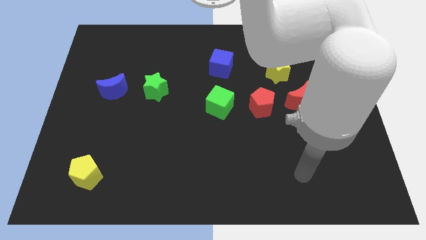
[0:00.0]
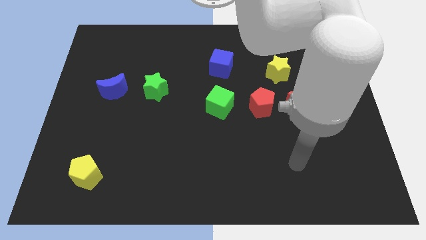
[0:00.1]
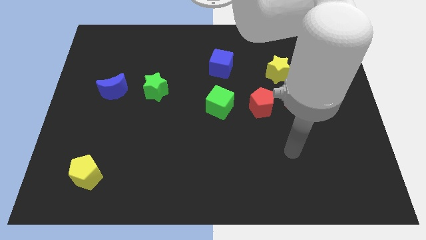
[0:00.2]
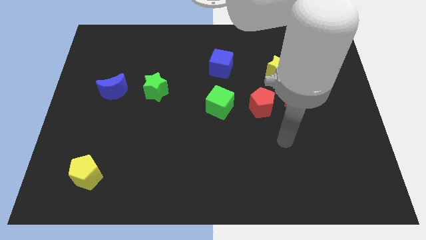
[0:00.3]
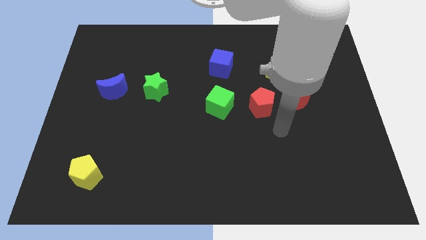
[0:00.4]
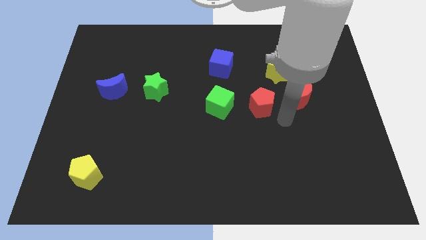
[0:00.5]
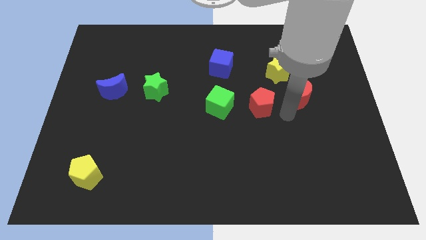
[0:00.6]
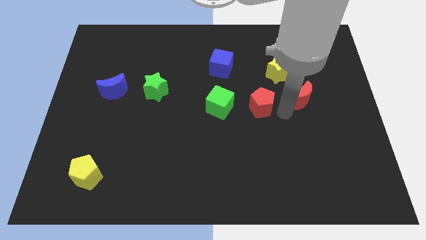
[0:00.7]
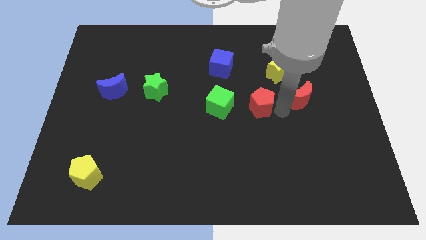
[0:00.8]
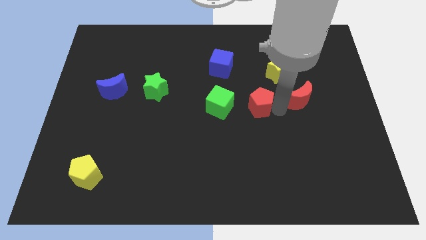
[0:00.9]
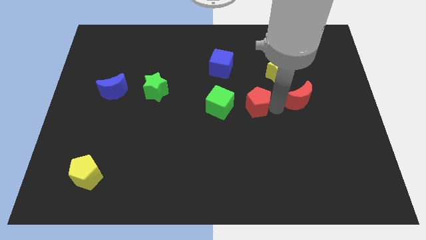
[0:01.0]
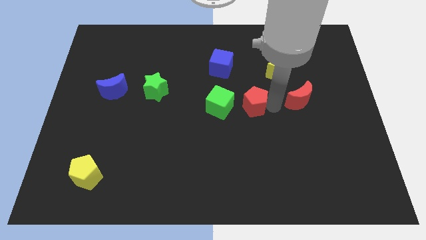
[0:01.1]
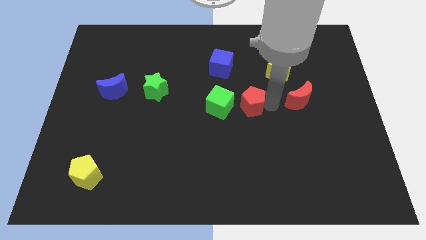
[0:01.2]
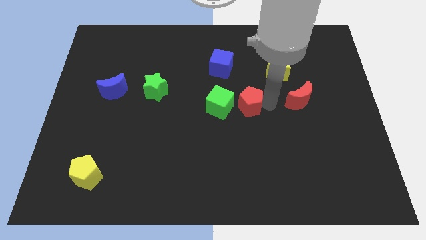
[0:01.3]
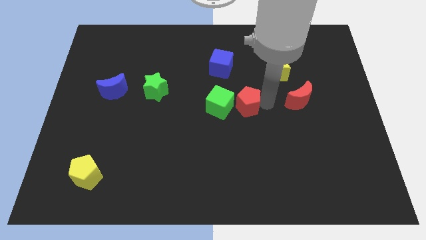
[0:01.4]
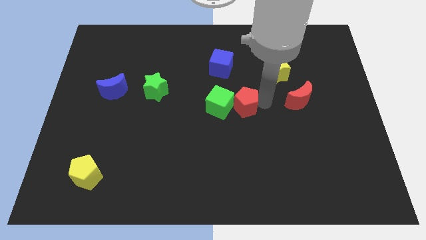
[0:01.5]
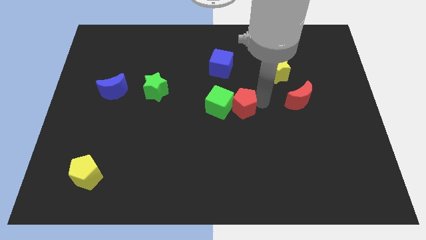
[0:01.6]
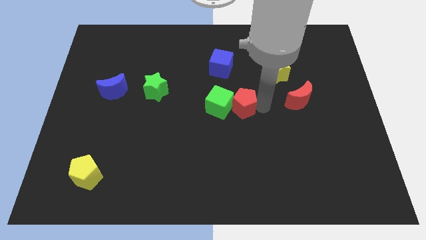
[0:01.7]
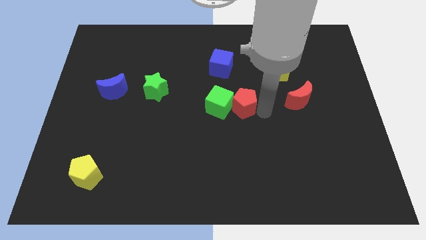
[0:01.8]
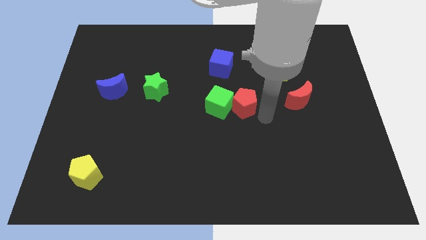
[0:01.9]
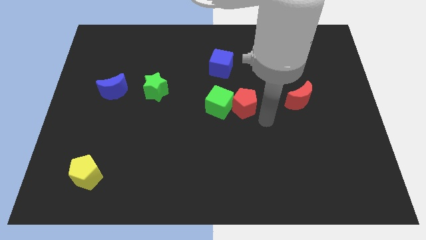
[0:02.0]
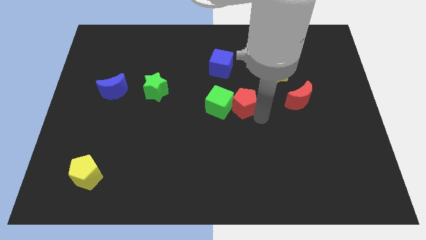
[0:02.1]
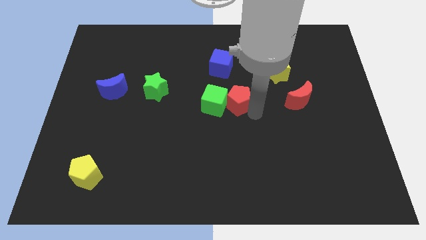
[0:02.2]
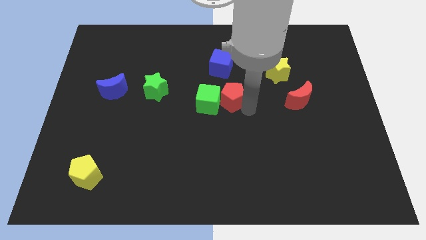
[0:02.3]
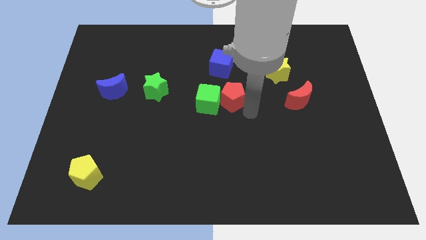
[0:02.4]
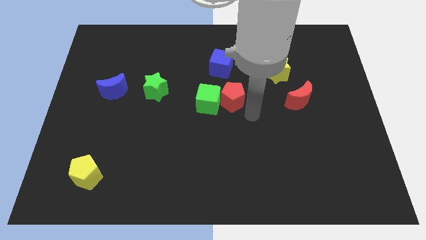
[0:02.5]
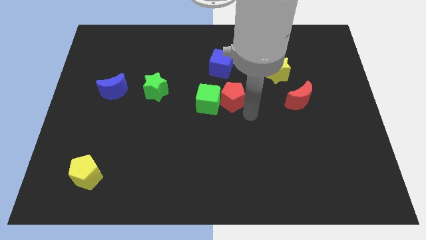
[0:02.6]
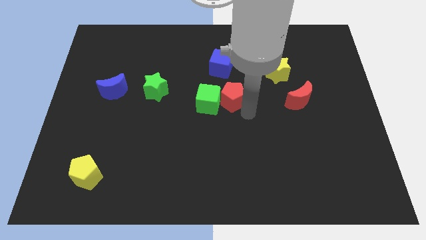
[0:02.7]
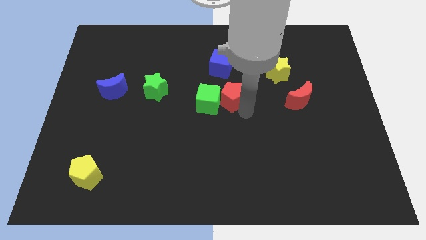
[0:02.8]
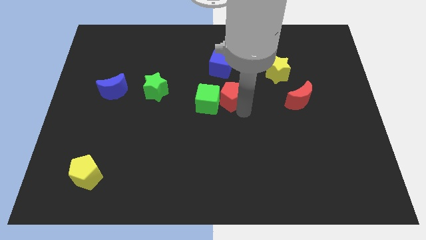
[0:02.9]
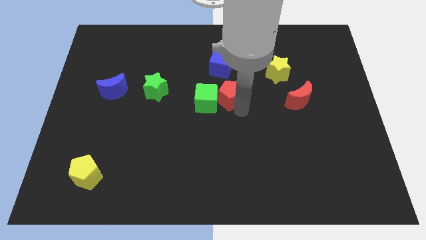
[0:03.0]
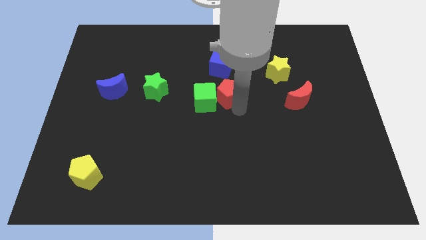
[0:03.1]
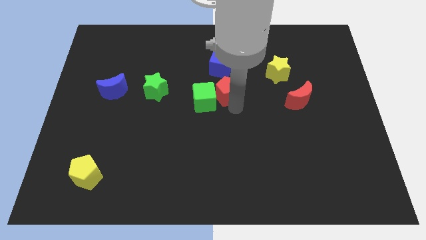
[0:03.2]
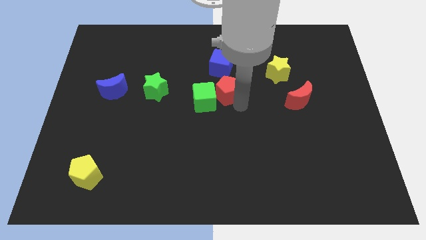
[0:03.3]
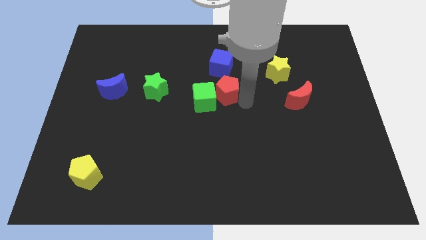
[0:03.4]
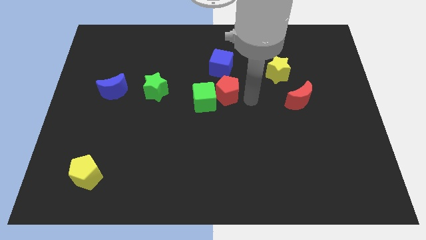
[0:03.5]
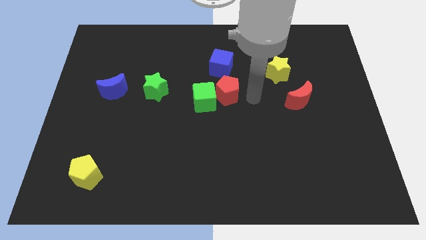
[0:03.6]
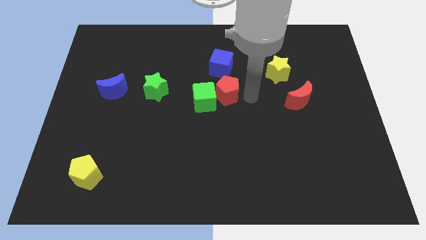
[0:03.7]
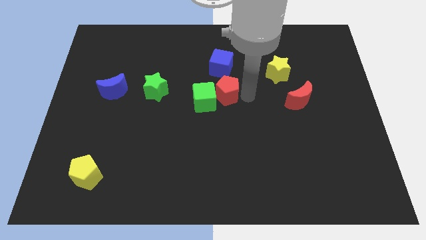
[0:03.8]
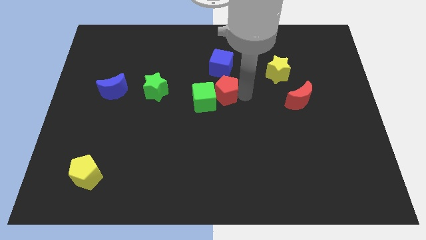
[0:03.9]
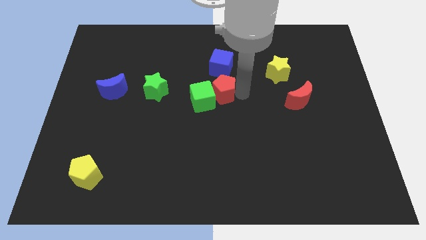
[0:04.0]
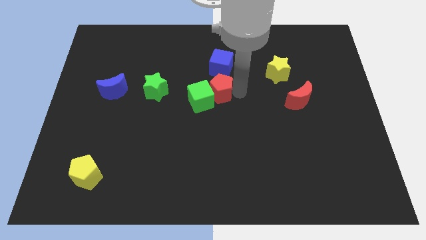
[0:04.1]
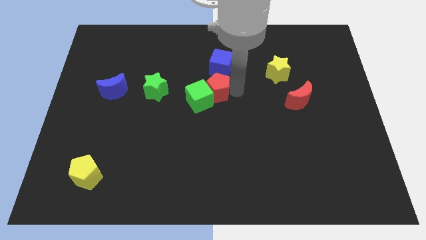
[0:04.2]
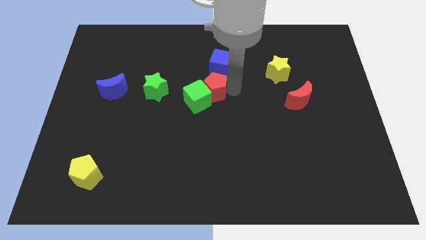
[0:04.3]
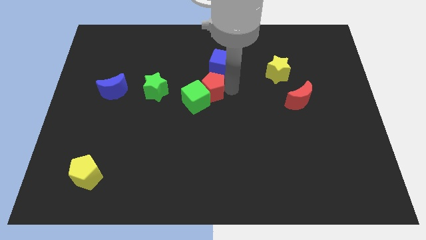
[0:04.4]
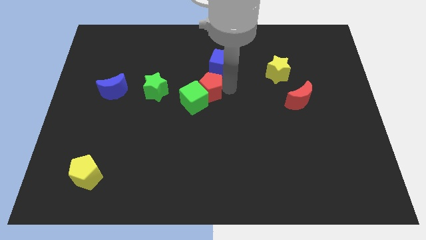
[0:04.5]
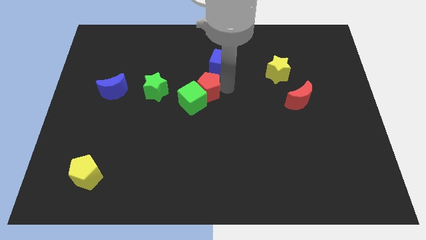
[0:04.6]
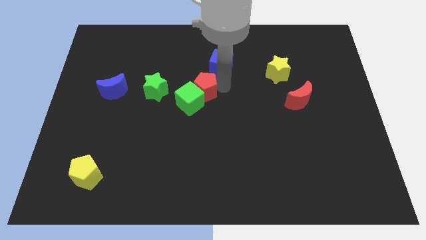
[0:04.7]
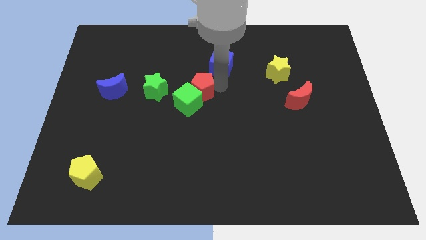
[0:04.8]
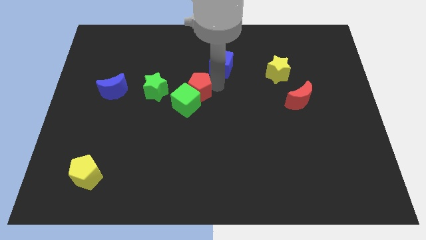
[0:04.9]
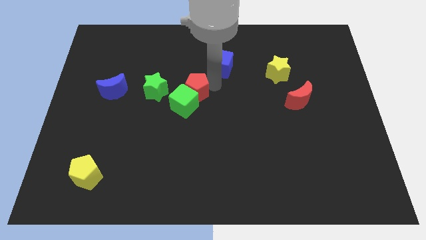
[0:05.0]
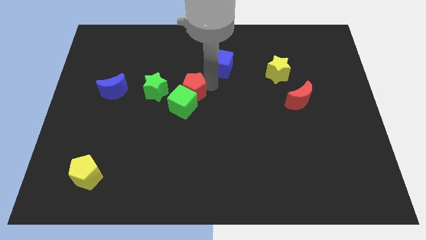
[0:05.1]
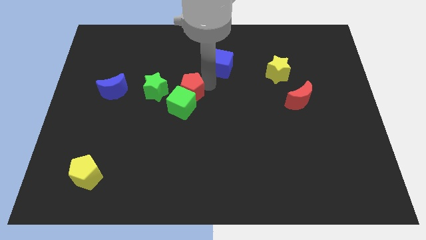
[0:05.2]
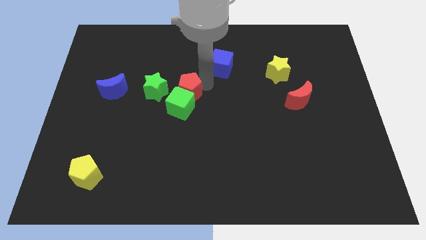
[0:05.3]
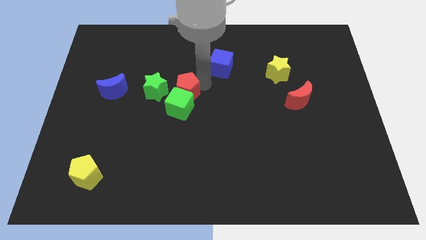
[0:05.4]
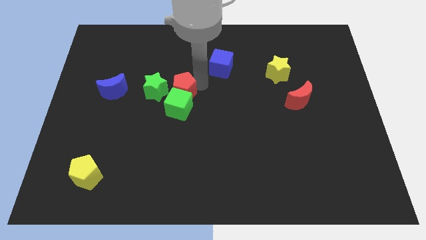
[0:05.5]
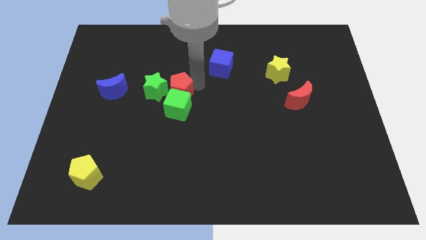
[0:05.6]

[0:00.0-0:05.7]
slide the red pentagon close to the green star

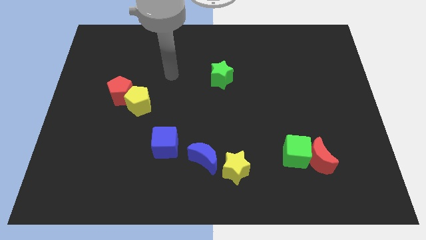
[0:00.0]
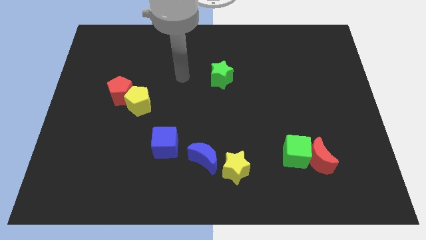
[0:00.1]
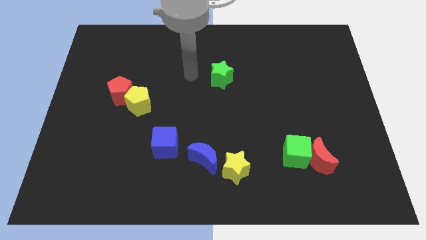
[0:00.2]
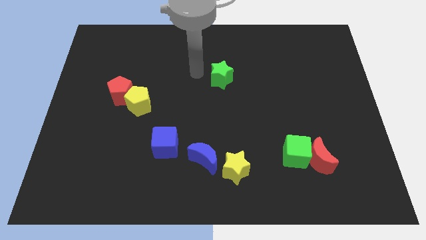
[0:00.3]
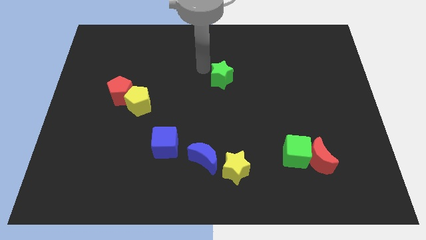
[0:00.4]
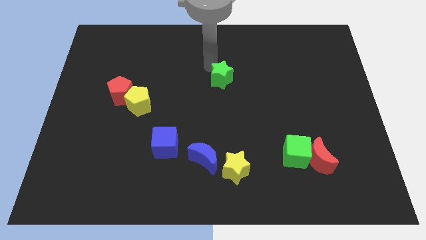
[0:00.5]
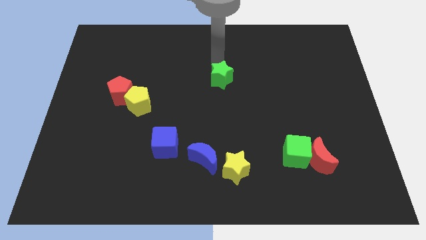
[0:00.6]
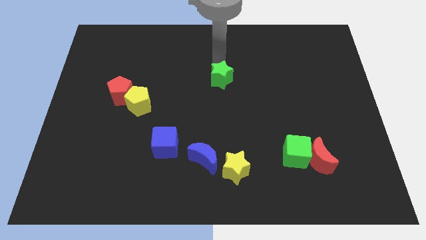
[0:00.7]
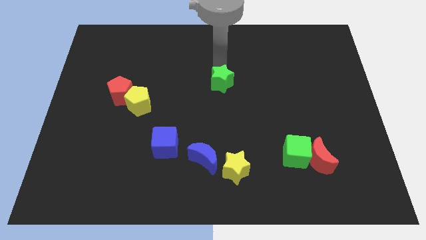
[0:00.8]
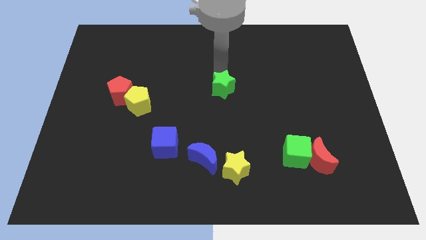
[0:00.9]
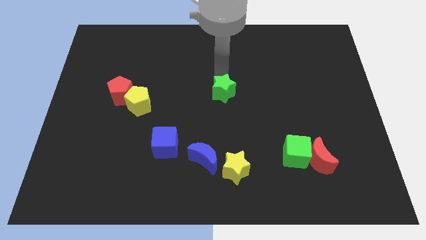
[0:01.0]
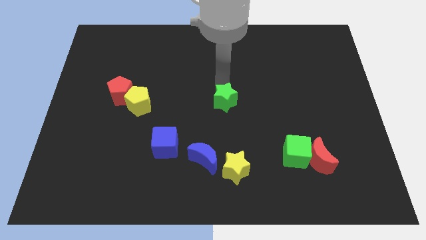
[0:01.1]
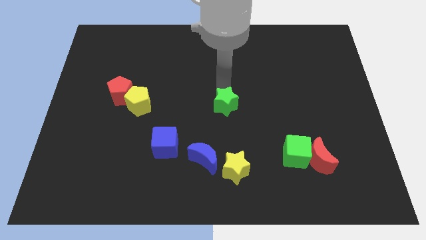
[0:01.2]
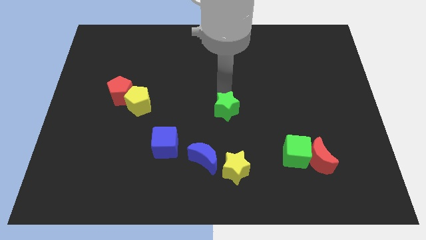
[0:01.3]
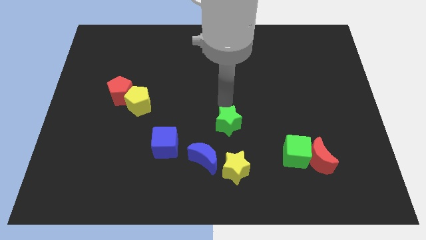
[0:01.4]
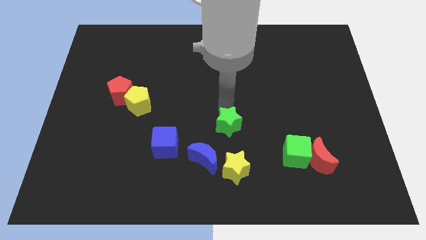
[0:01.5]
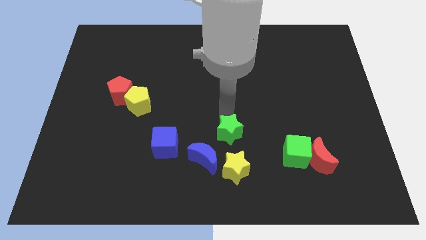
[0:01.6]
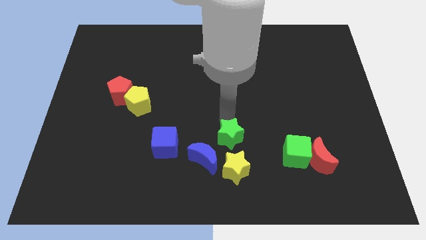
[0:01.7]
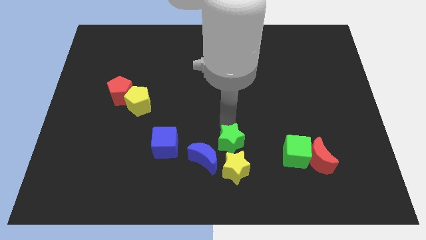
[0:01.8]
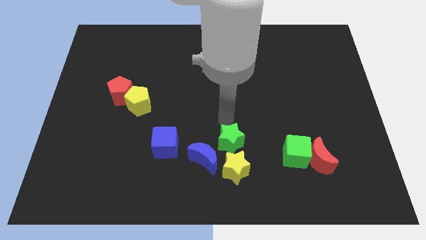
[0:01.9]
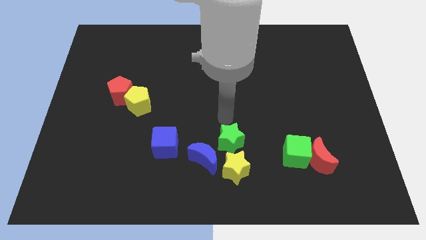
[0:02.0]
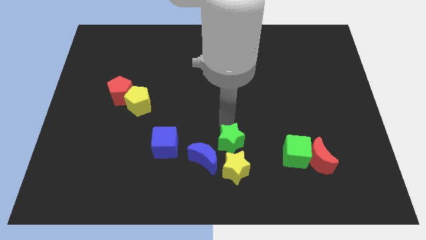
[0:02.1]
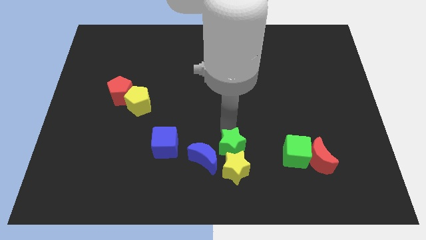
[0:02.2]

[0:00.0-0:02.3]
slide the green star to the yellow star
